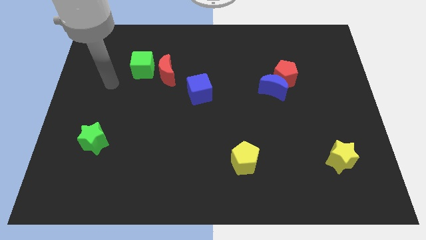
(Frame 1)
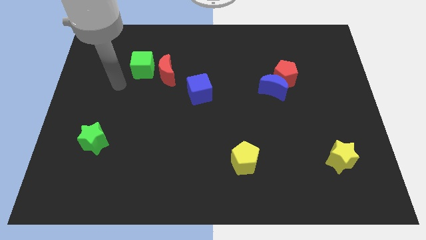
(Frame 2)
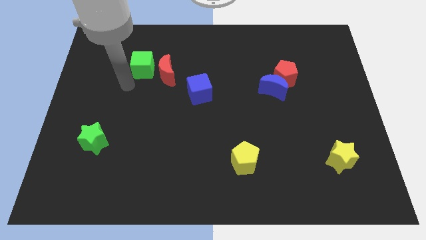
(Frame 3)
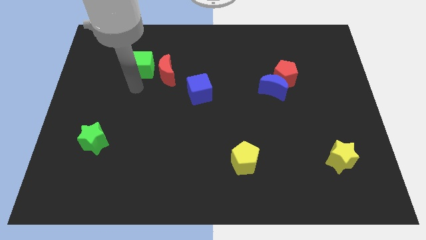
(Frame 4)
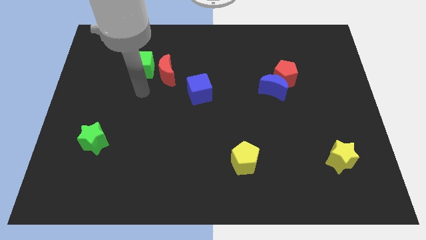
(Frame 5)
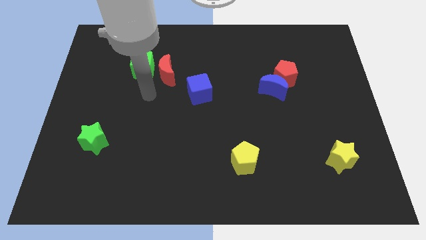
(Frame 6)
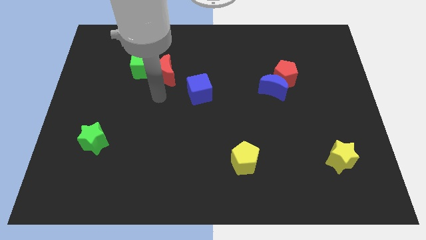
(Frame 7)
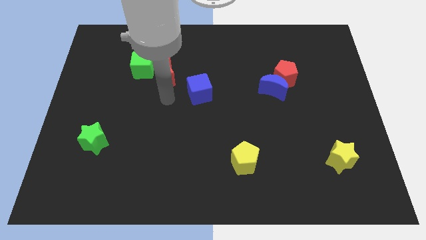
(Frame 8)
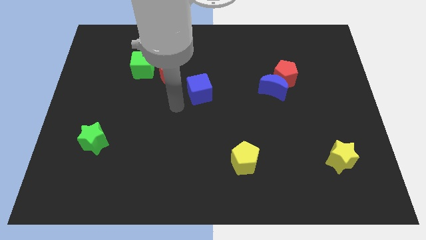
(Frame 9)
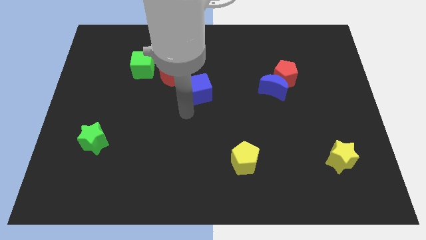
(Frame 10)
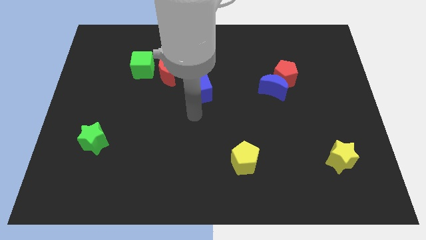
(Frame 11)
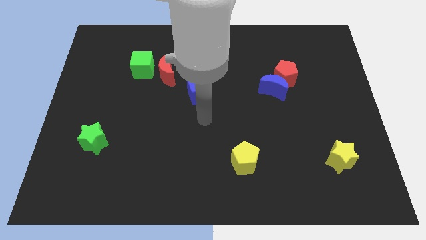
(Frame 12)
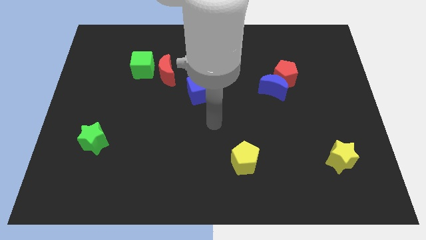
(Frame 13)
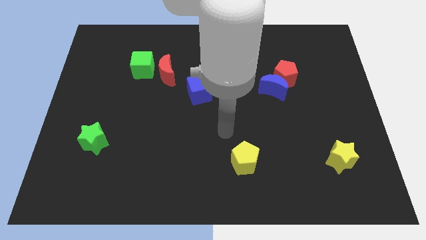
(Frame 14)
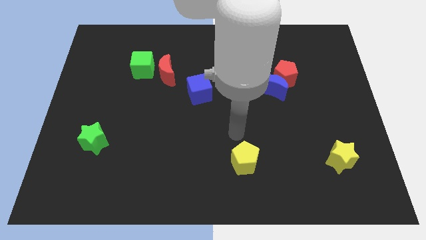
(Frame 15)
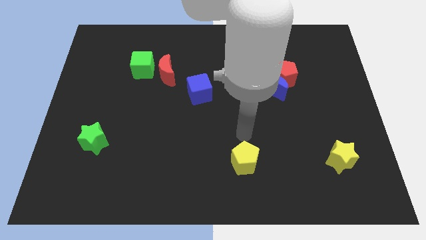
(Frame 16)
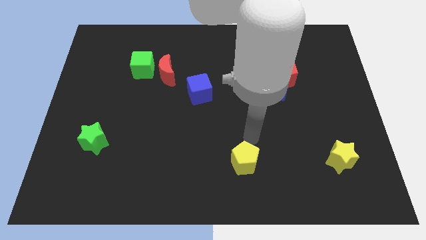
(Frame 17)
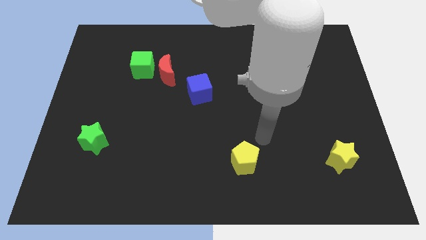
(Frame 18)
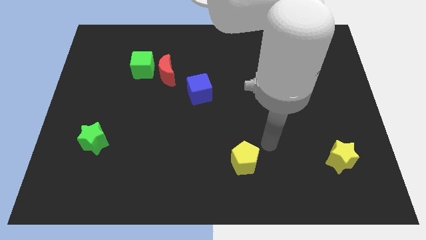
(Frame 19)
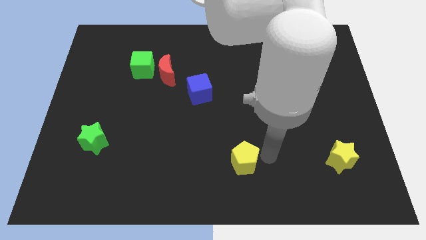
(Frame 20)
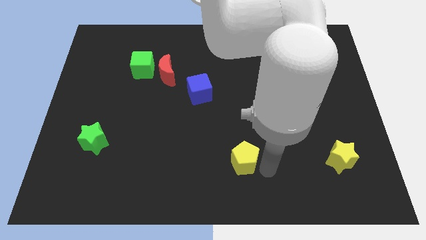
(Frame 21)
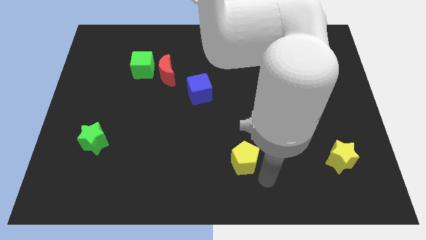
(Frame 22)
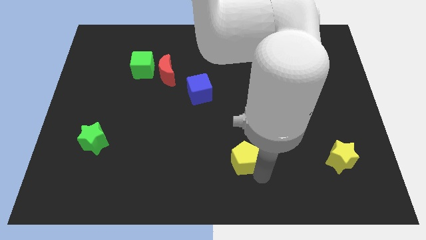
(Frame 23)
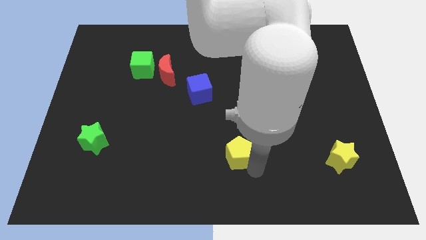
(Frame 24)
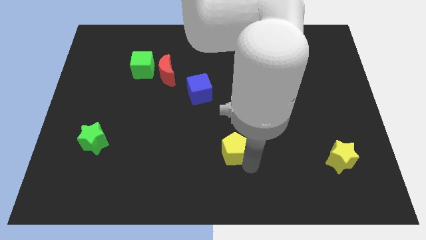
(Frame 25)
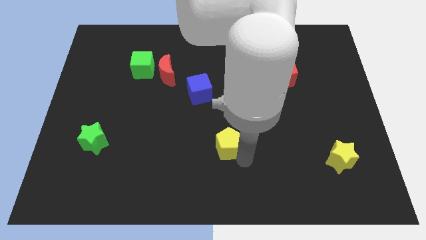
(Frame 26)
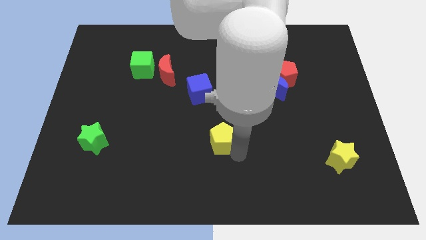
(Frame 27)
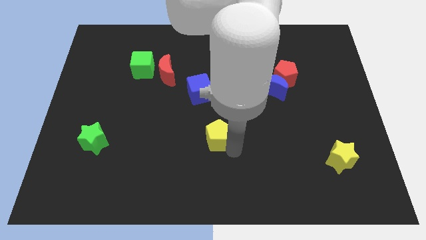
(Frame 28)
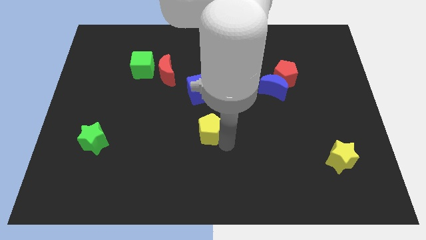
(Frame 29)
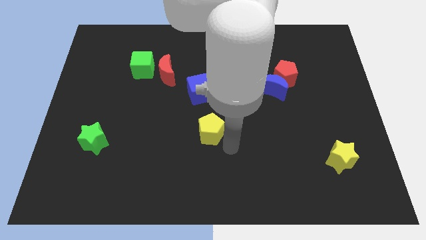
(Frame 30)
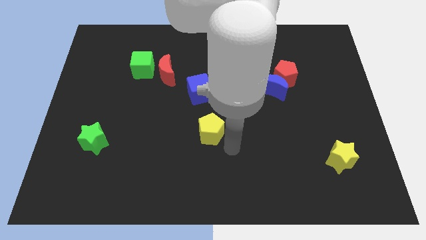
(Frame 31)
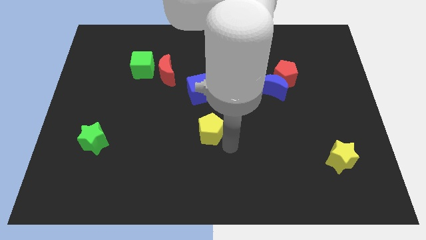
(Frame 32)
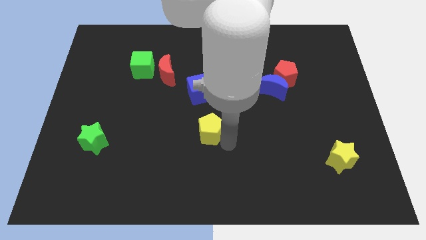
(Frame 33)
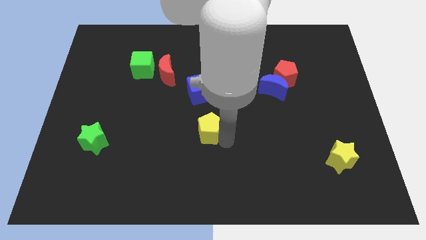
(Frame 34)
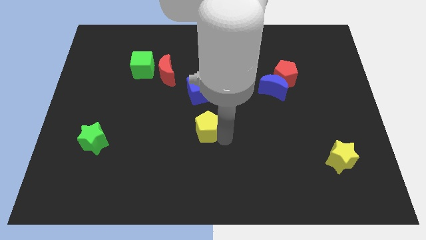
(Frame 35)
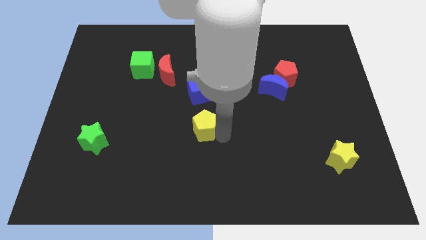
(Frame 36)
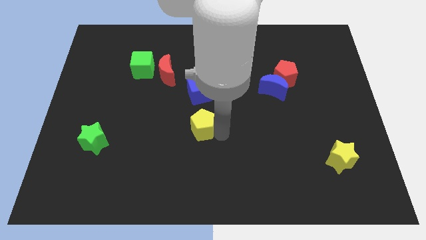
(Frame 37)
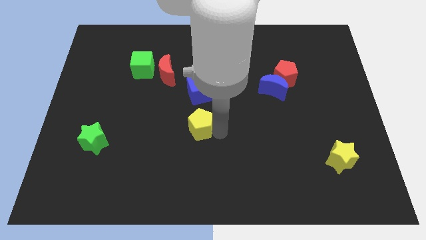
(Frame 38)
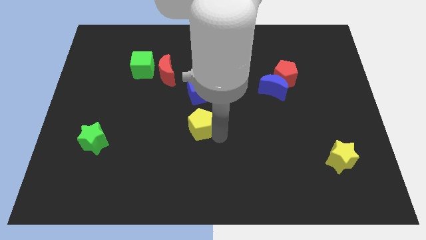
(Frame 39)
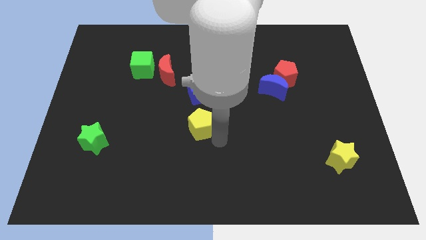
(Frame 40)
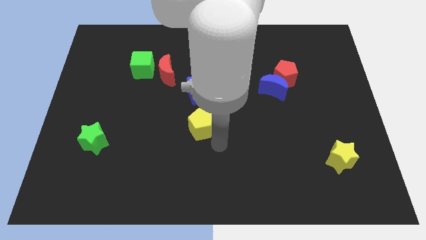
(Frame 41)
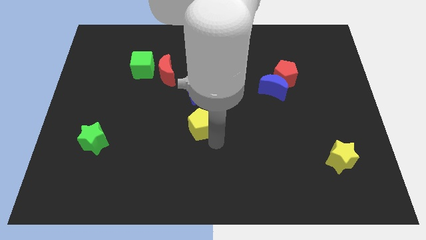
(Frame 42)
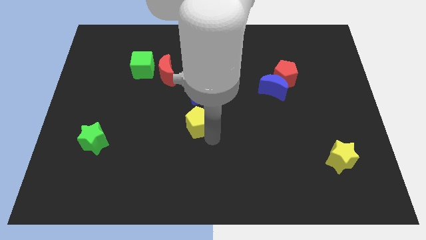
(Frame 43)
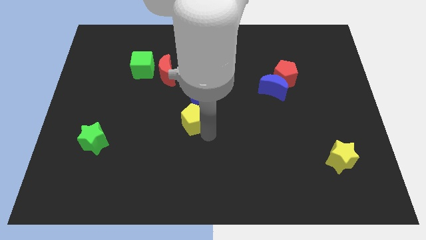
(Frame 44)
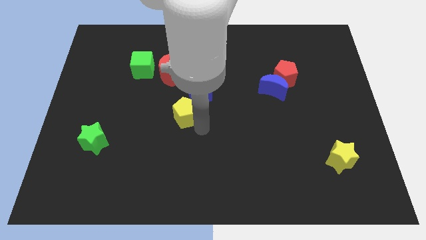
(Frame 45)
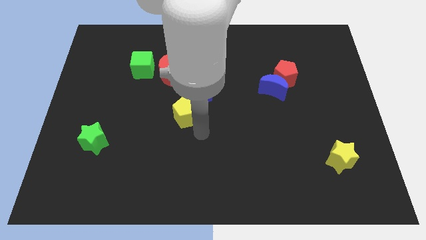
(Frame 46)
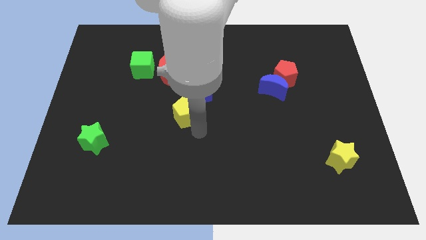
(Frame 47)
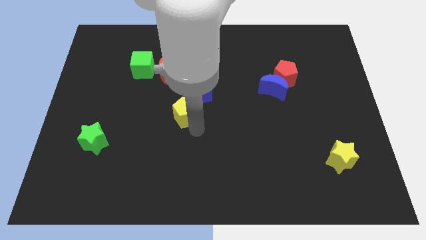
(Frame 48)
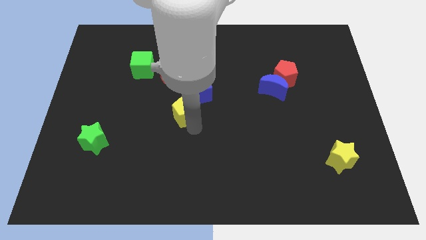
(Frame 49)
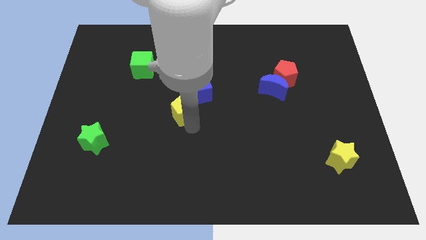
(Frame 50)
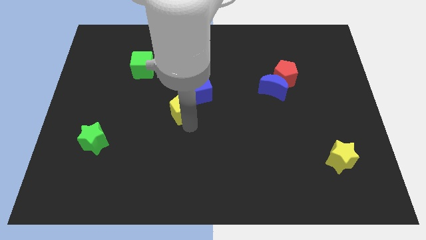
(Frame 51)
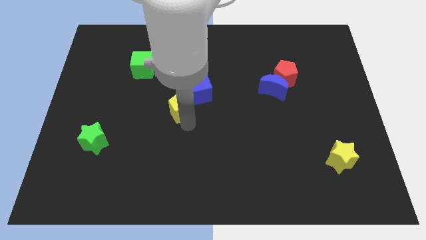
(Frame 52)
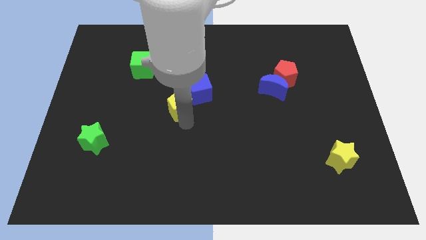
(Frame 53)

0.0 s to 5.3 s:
move the yellow pentagon up and to the left

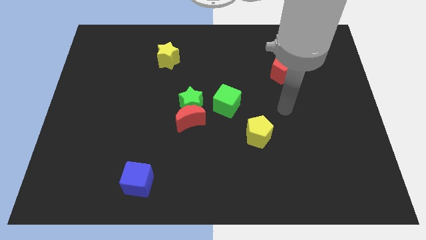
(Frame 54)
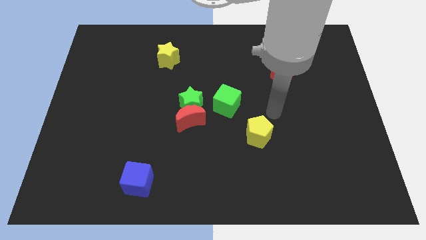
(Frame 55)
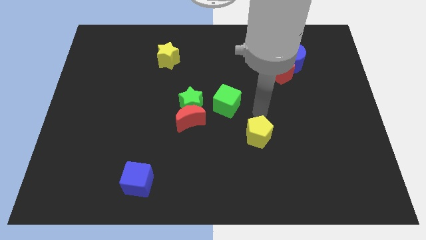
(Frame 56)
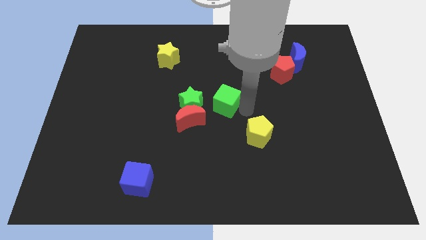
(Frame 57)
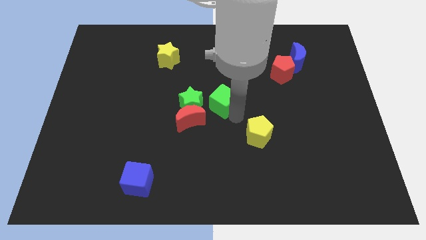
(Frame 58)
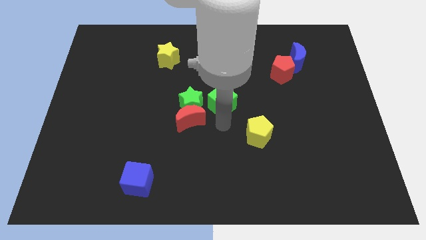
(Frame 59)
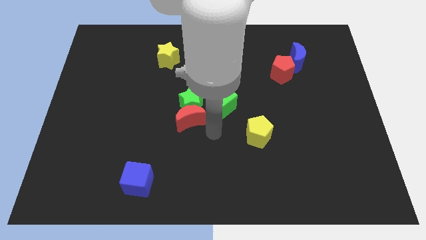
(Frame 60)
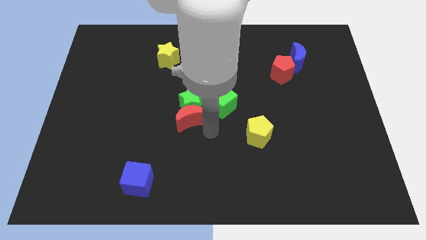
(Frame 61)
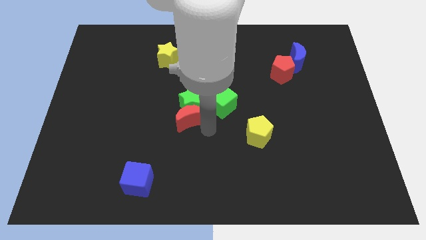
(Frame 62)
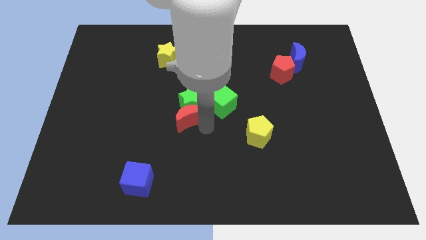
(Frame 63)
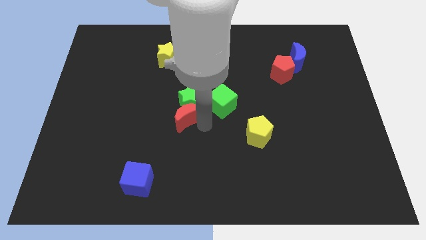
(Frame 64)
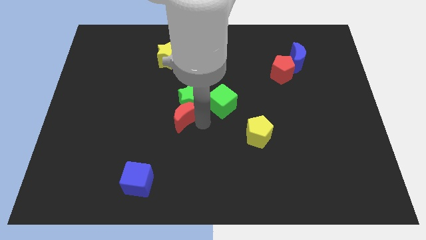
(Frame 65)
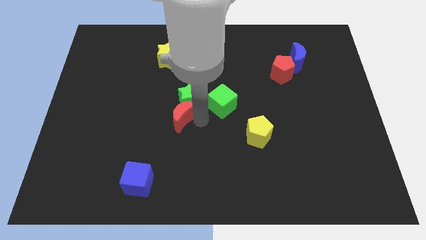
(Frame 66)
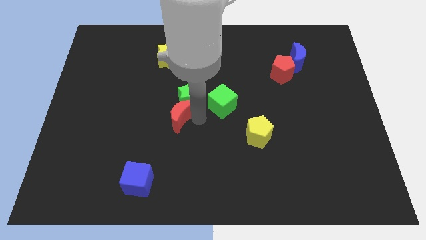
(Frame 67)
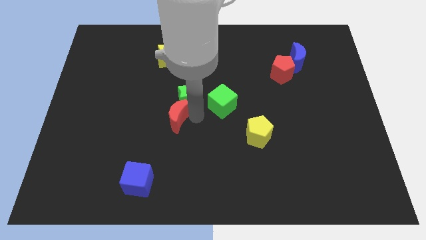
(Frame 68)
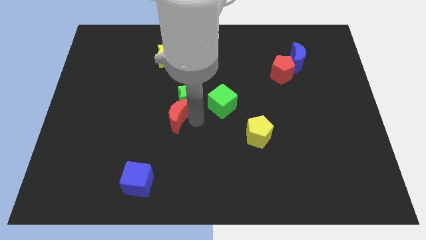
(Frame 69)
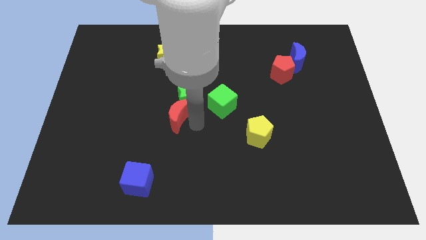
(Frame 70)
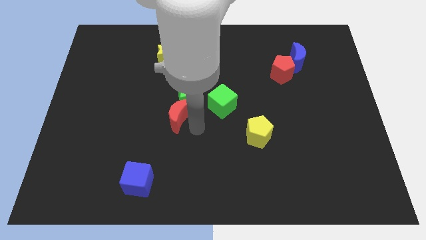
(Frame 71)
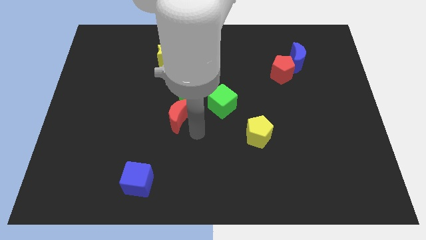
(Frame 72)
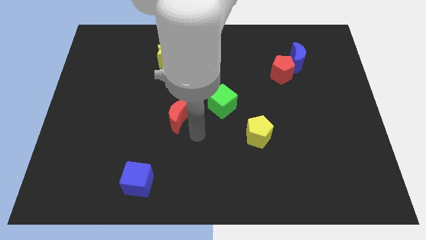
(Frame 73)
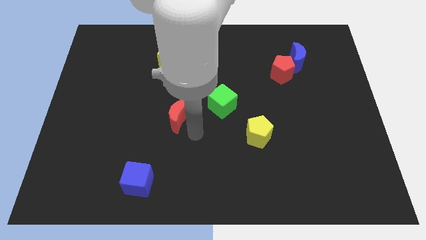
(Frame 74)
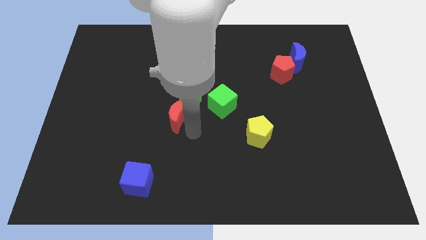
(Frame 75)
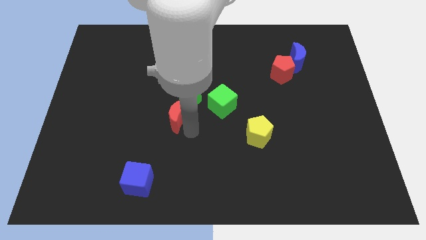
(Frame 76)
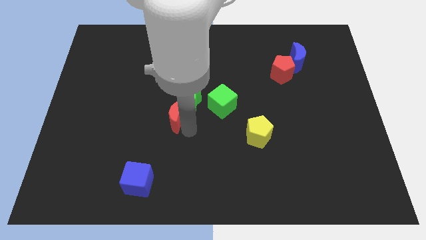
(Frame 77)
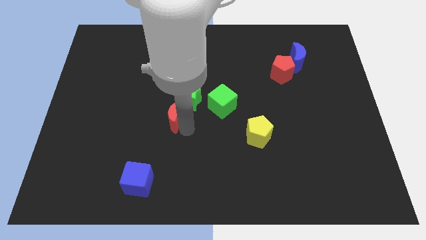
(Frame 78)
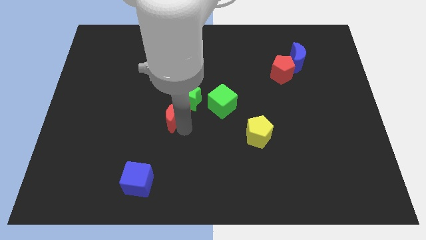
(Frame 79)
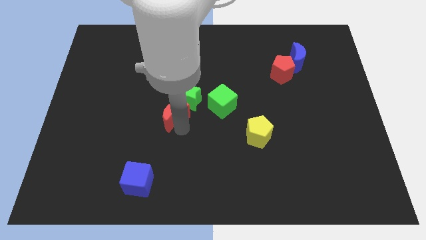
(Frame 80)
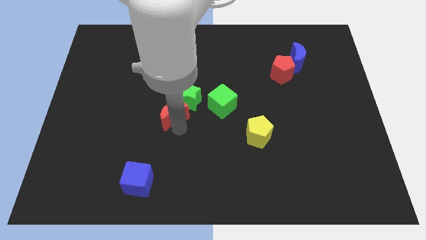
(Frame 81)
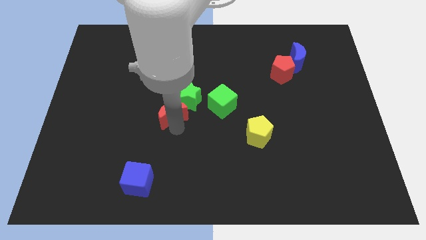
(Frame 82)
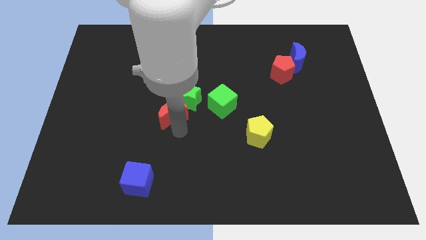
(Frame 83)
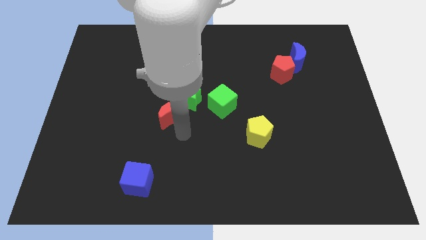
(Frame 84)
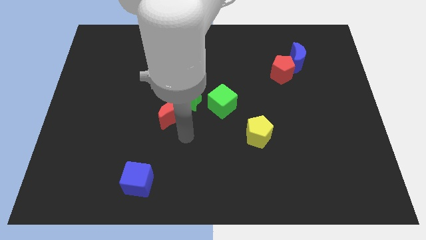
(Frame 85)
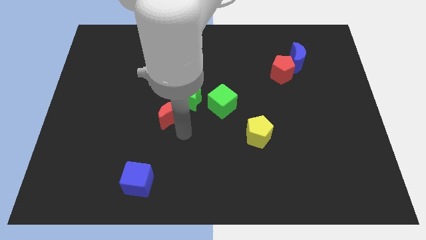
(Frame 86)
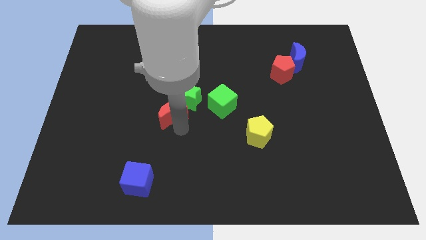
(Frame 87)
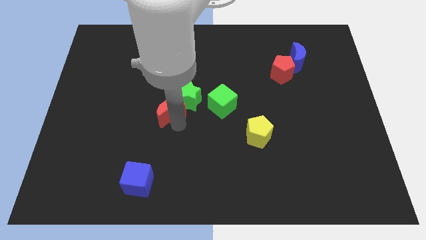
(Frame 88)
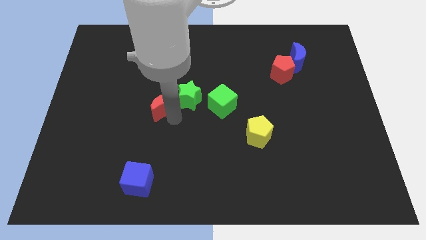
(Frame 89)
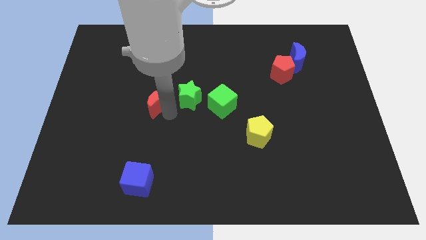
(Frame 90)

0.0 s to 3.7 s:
push the red moon up and to the left slightly
